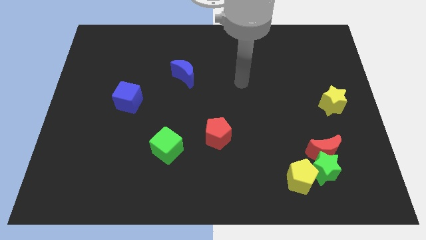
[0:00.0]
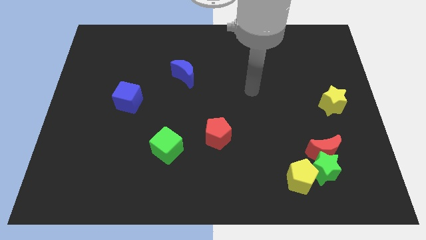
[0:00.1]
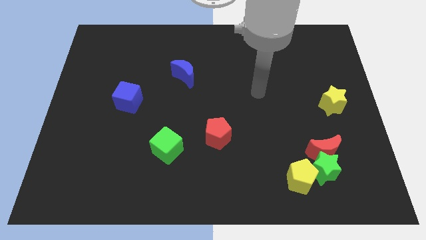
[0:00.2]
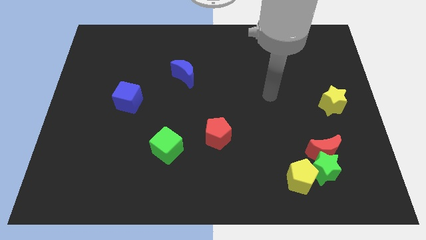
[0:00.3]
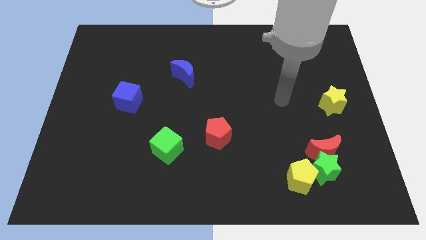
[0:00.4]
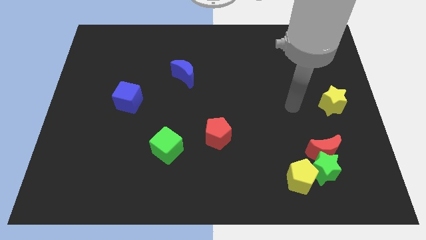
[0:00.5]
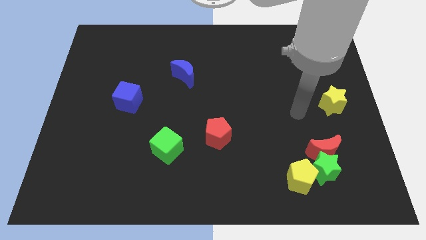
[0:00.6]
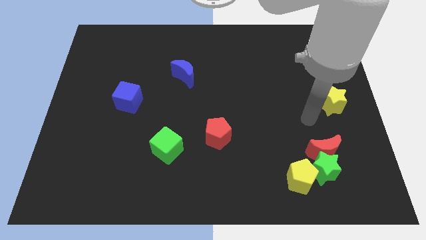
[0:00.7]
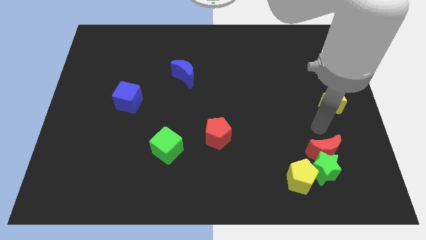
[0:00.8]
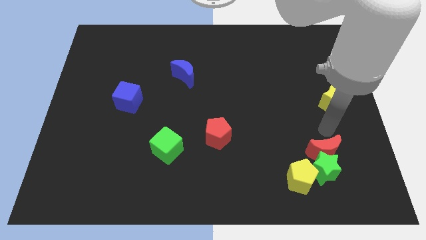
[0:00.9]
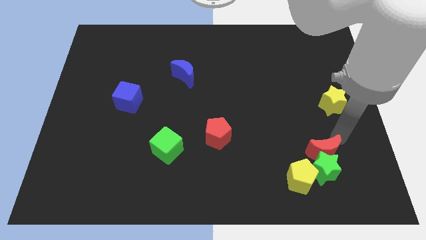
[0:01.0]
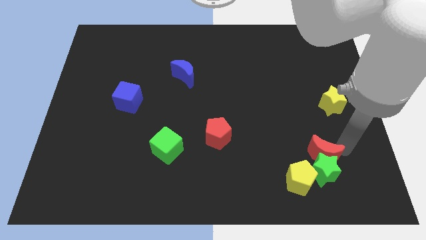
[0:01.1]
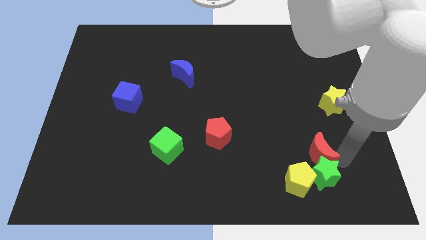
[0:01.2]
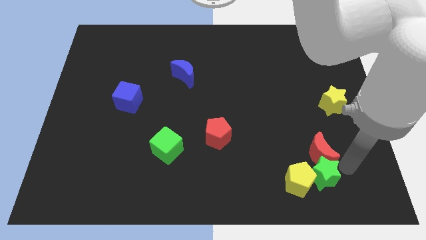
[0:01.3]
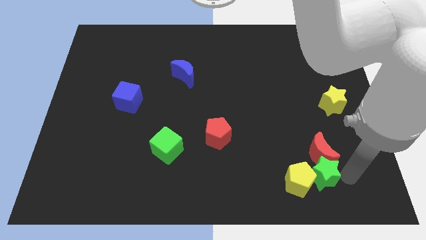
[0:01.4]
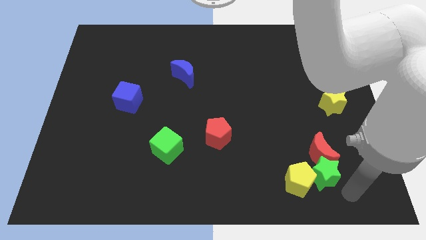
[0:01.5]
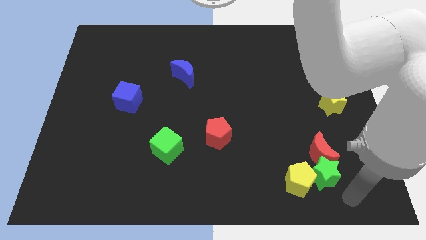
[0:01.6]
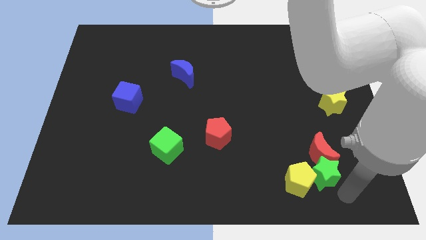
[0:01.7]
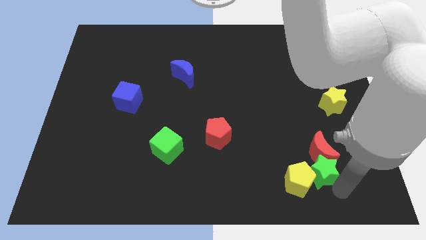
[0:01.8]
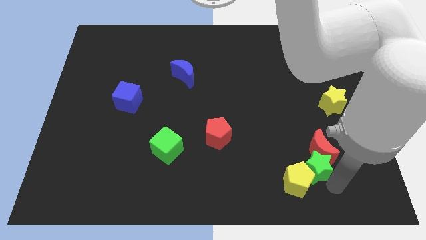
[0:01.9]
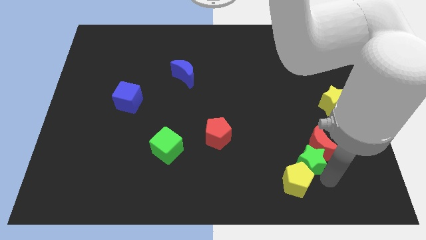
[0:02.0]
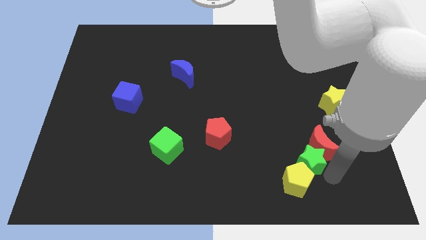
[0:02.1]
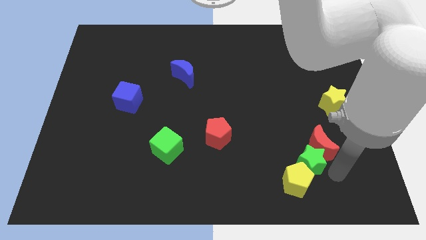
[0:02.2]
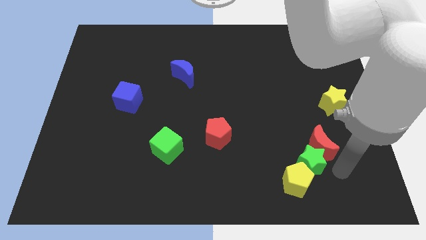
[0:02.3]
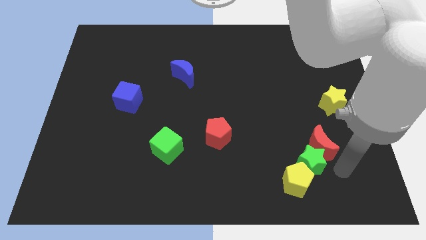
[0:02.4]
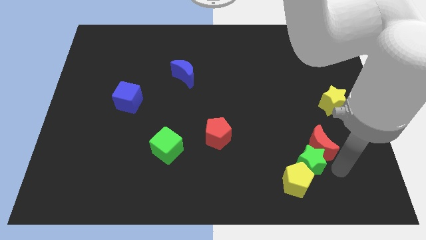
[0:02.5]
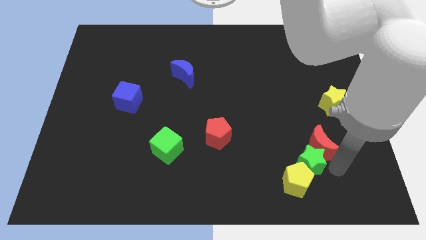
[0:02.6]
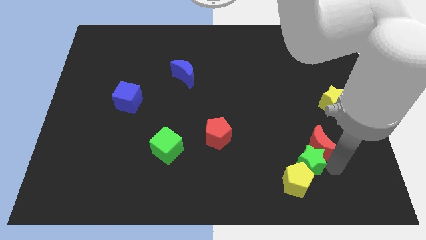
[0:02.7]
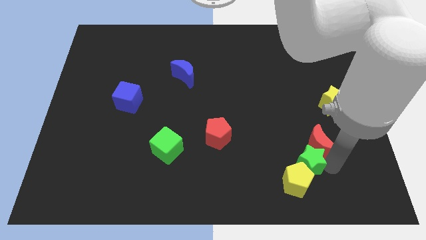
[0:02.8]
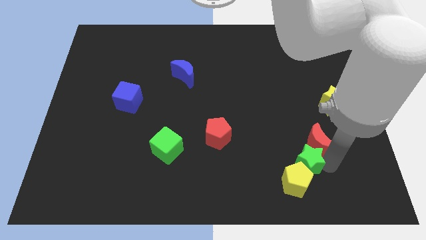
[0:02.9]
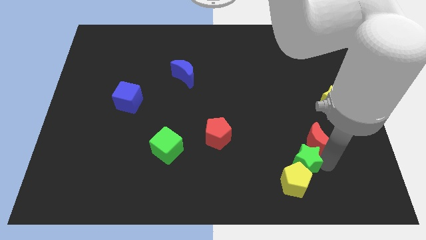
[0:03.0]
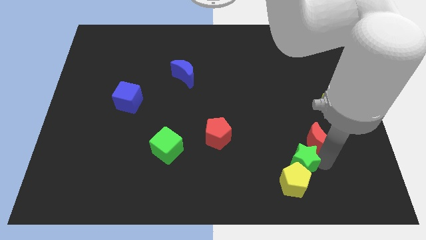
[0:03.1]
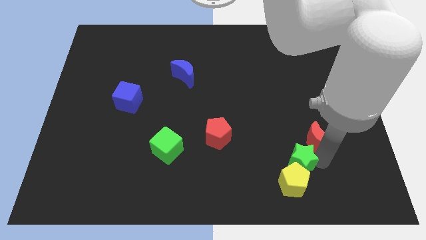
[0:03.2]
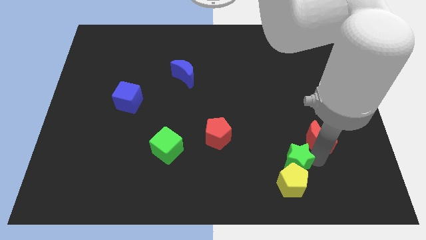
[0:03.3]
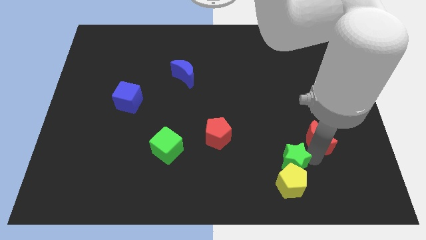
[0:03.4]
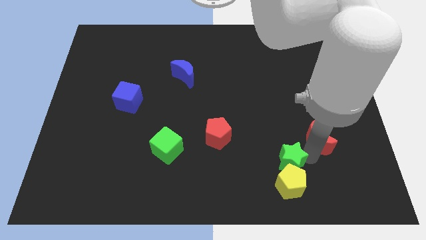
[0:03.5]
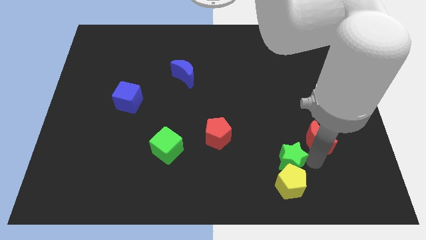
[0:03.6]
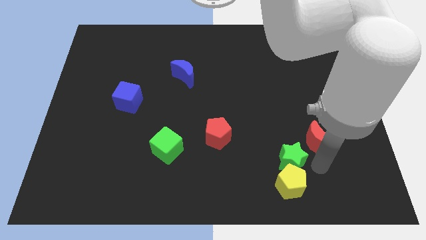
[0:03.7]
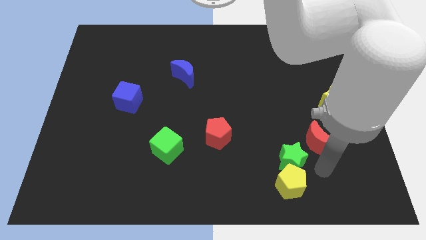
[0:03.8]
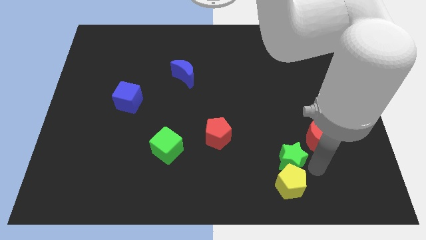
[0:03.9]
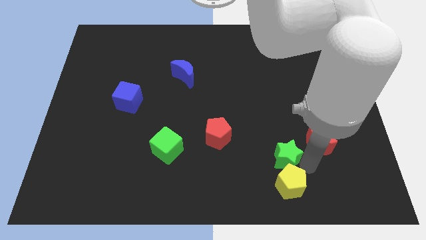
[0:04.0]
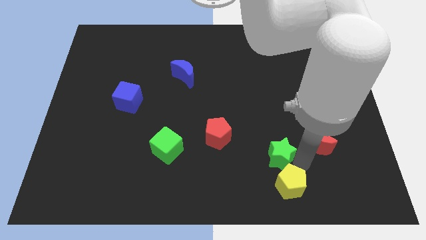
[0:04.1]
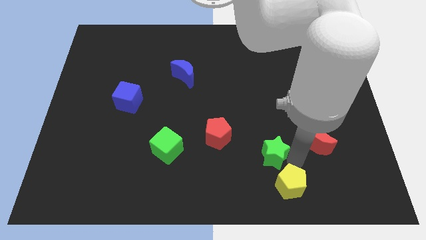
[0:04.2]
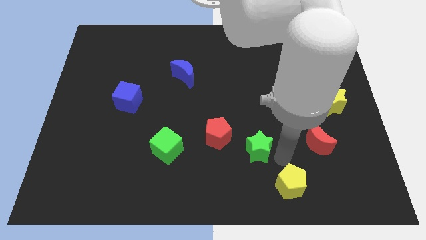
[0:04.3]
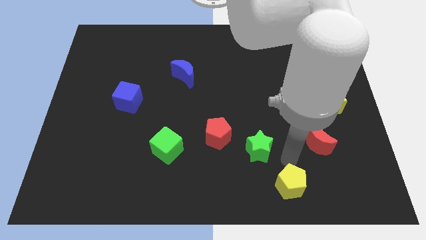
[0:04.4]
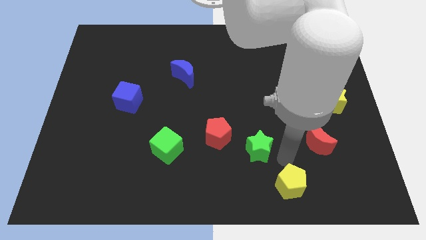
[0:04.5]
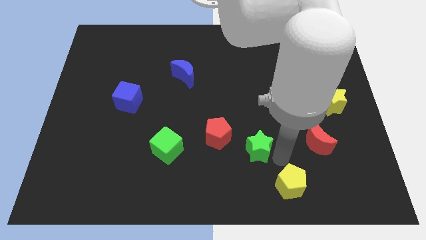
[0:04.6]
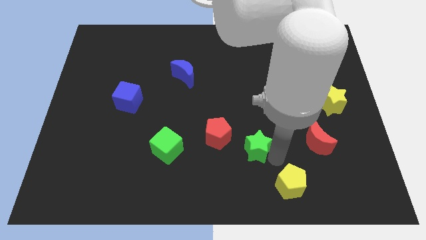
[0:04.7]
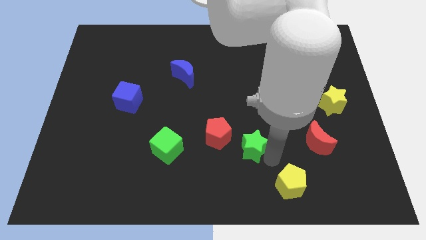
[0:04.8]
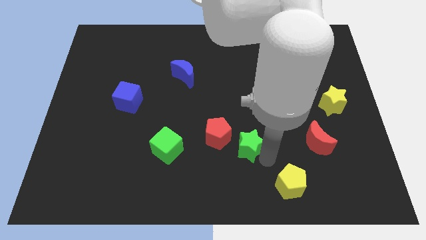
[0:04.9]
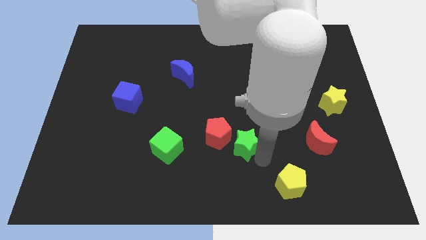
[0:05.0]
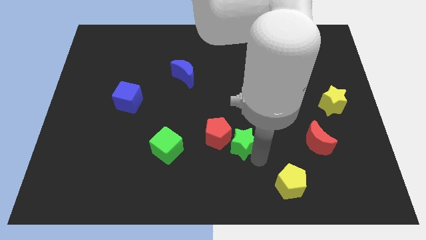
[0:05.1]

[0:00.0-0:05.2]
put the green star next to the red pentagon

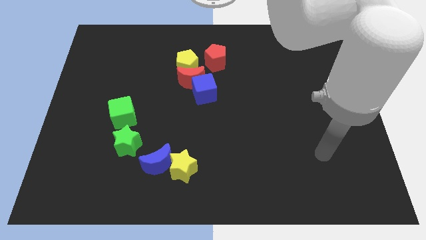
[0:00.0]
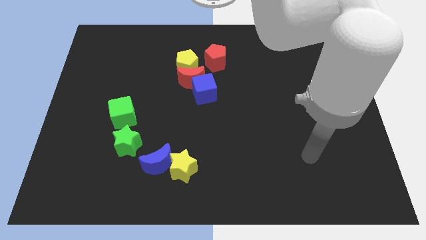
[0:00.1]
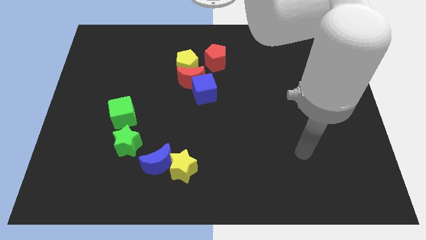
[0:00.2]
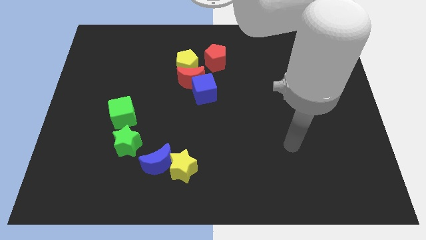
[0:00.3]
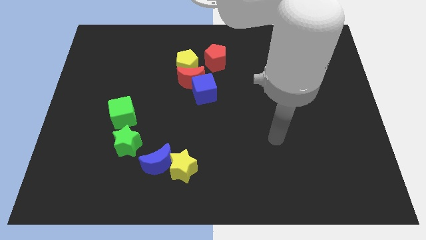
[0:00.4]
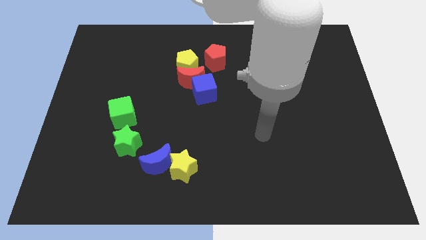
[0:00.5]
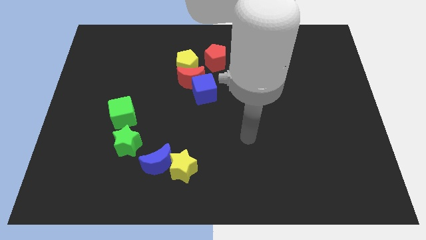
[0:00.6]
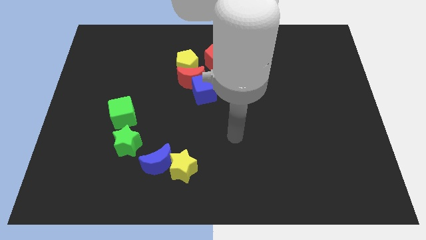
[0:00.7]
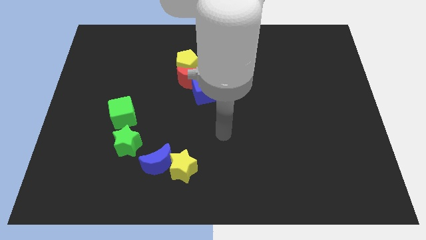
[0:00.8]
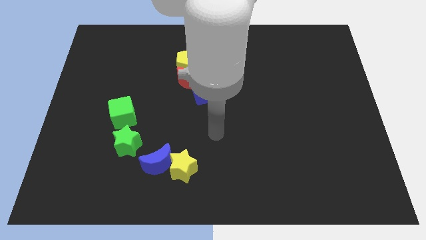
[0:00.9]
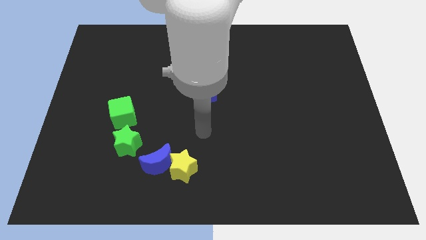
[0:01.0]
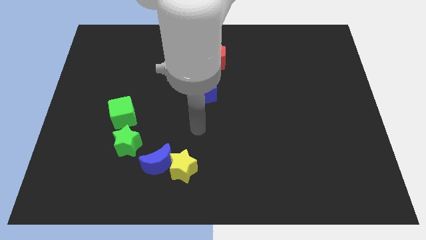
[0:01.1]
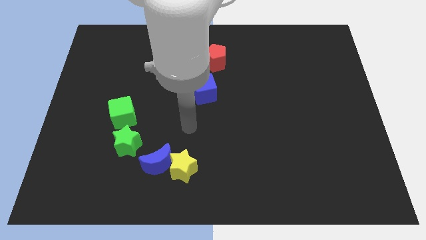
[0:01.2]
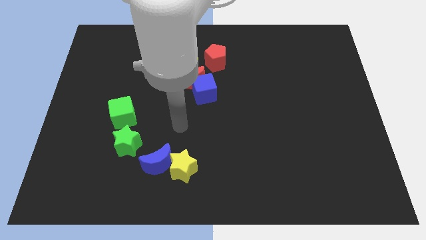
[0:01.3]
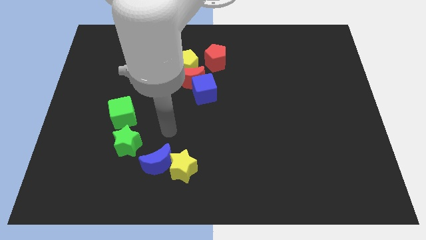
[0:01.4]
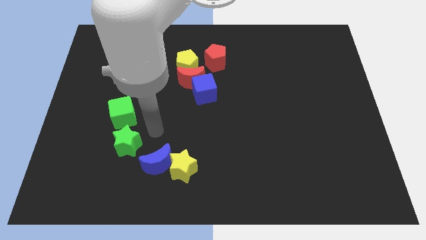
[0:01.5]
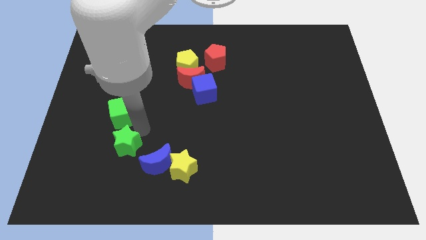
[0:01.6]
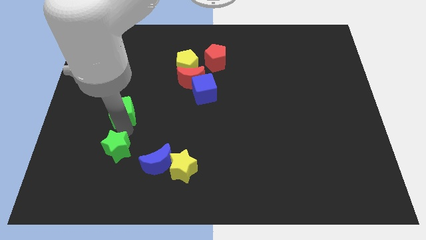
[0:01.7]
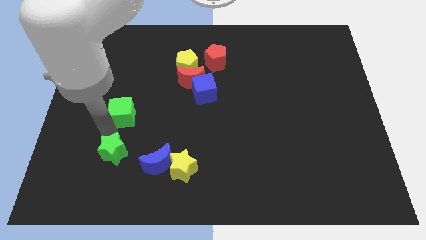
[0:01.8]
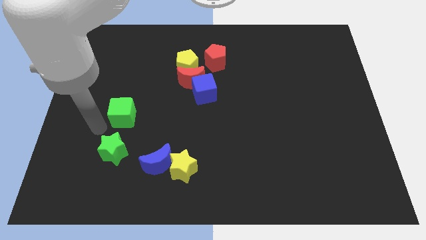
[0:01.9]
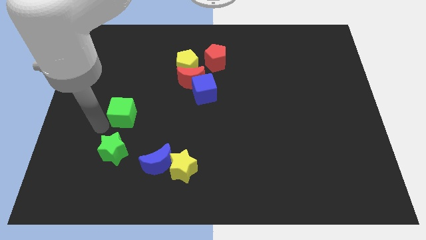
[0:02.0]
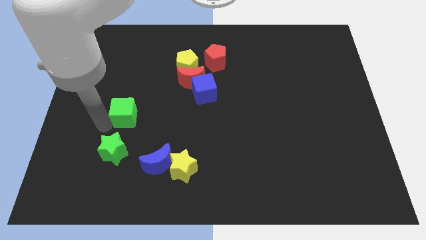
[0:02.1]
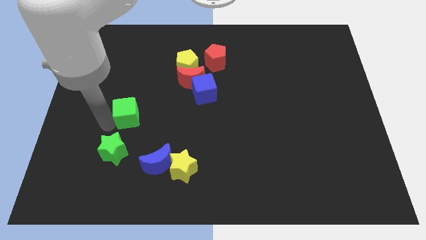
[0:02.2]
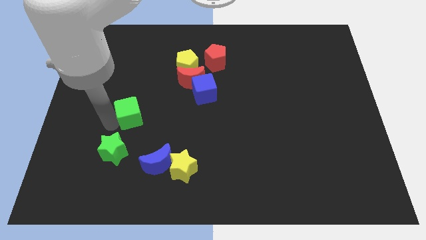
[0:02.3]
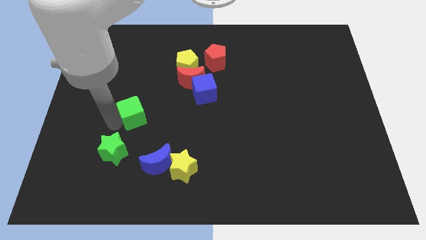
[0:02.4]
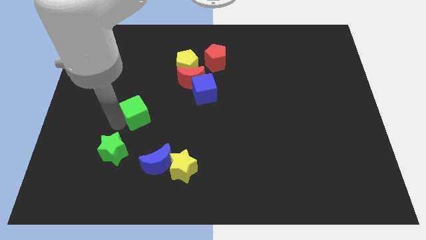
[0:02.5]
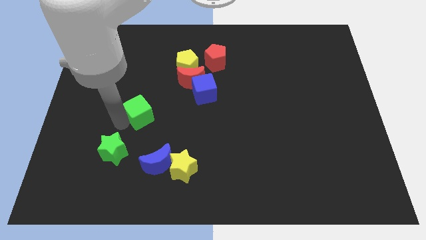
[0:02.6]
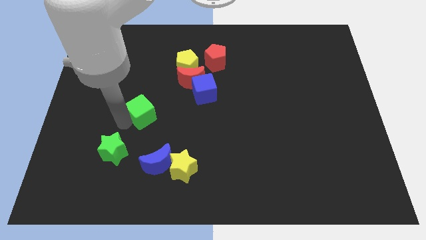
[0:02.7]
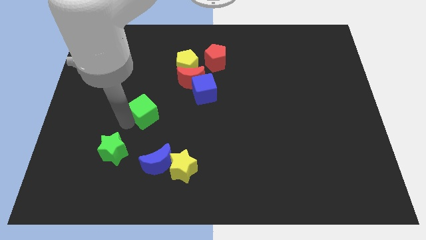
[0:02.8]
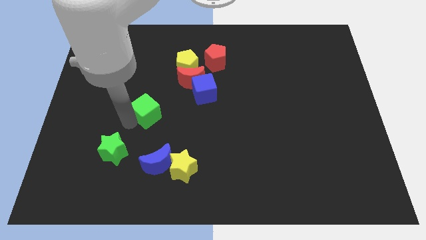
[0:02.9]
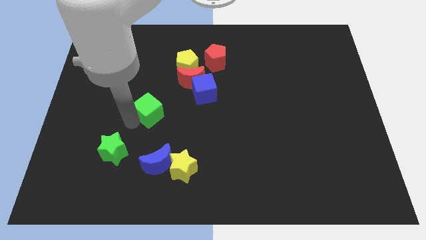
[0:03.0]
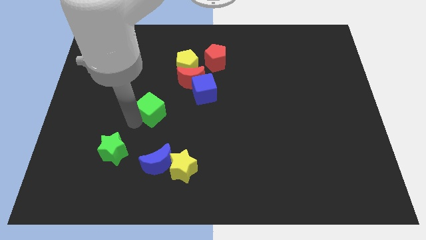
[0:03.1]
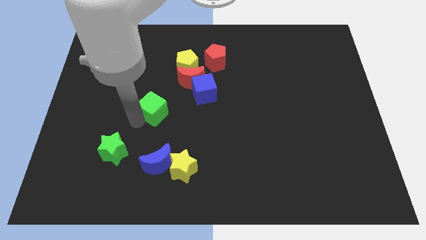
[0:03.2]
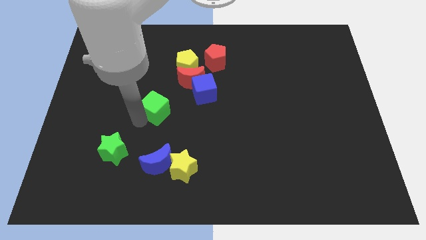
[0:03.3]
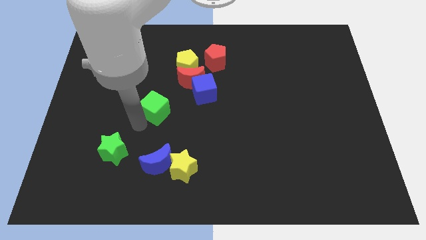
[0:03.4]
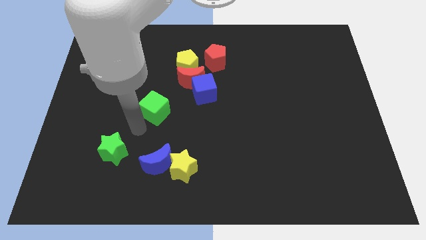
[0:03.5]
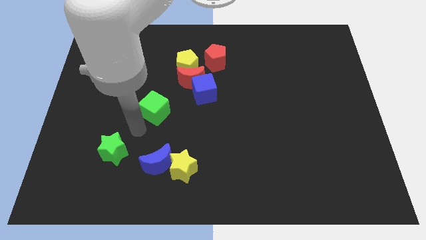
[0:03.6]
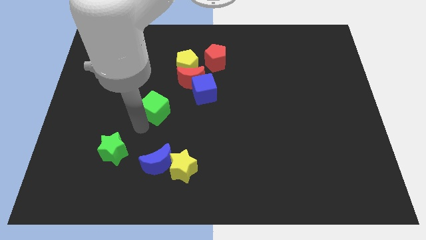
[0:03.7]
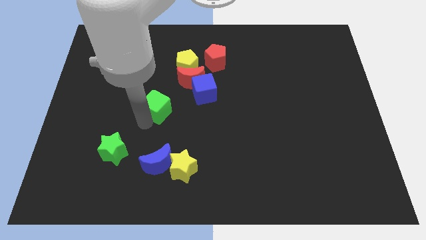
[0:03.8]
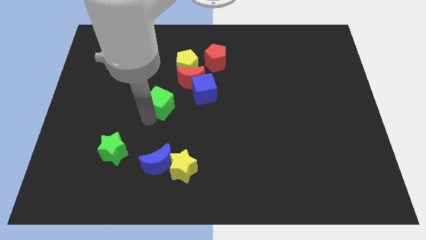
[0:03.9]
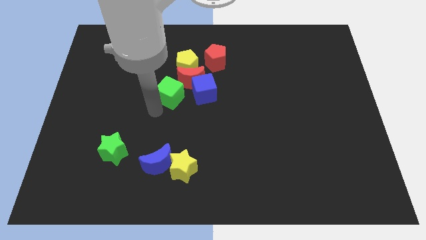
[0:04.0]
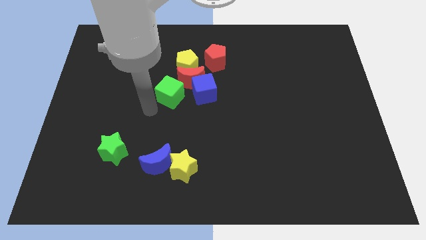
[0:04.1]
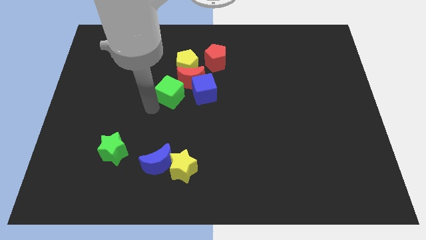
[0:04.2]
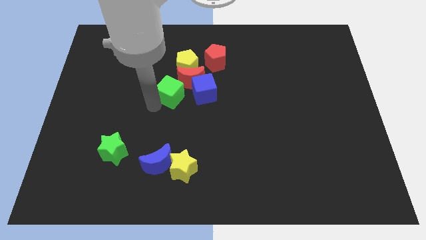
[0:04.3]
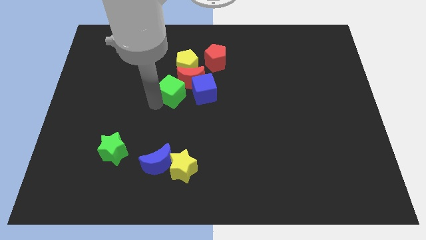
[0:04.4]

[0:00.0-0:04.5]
push the green cube close to the red moon
